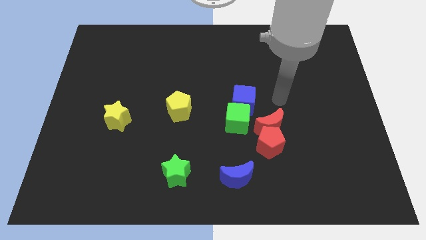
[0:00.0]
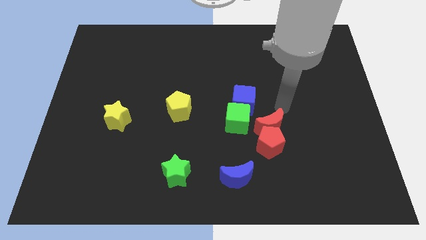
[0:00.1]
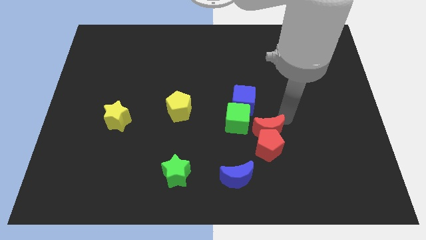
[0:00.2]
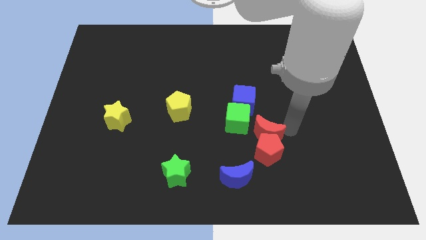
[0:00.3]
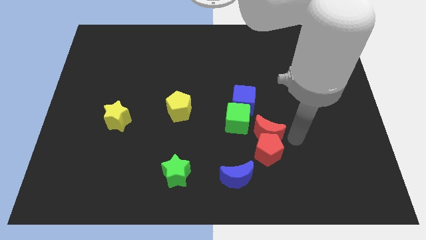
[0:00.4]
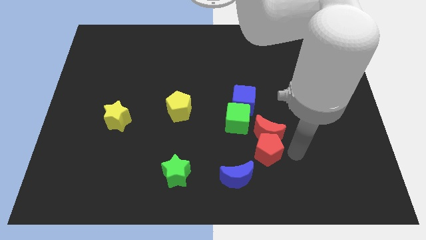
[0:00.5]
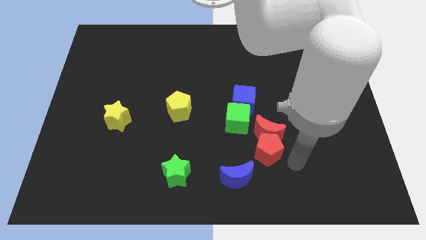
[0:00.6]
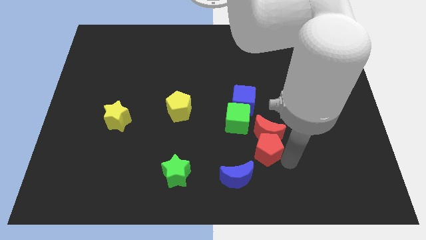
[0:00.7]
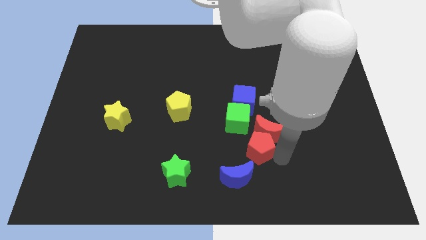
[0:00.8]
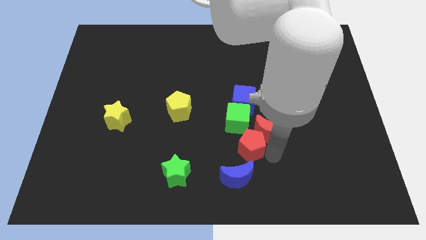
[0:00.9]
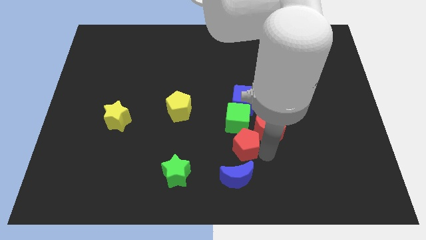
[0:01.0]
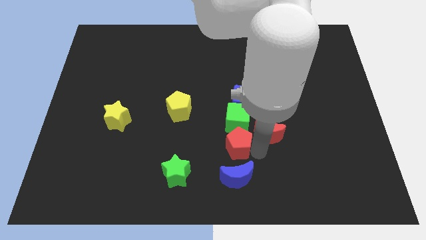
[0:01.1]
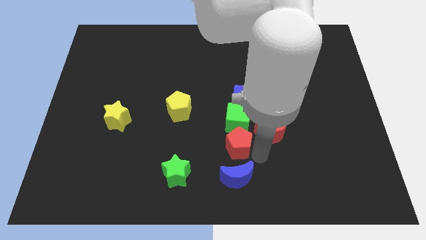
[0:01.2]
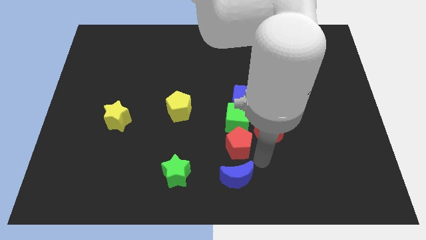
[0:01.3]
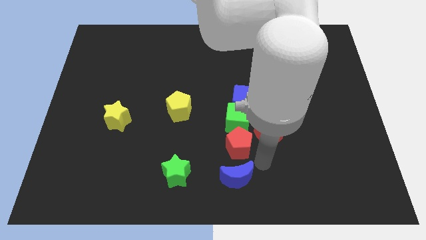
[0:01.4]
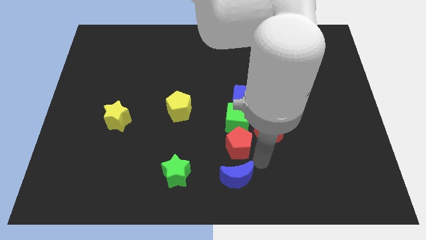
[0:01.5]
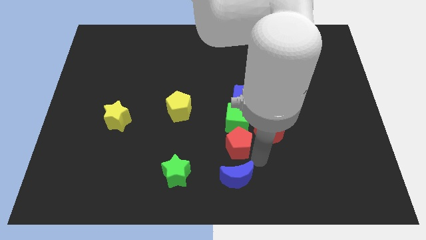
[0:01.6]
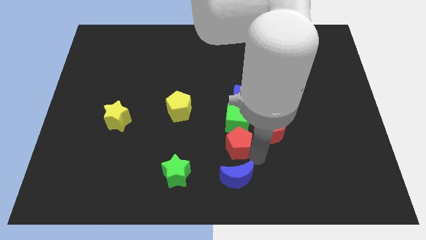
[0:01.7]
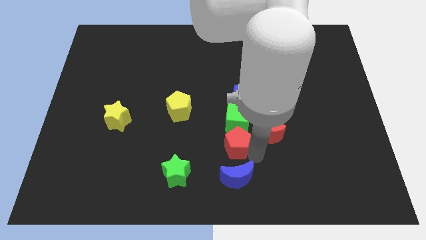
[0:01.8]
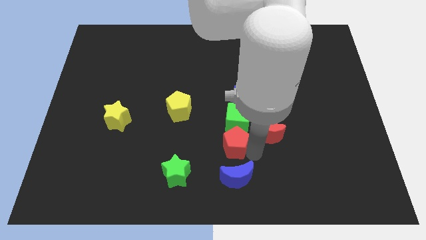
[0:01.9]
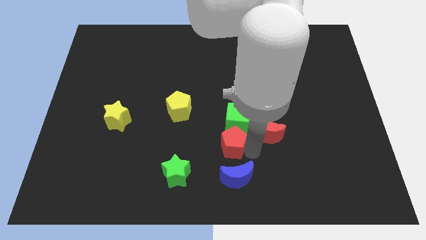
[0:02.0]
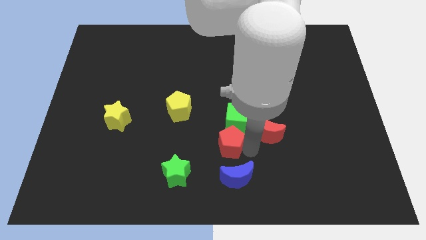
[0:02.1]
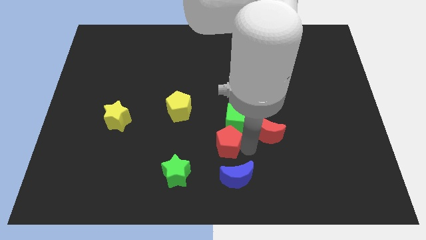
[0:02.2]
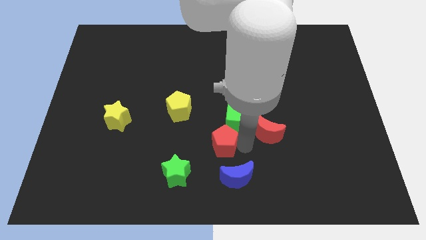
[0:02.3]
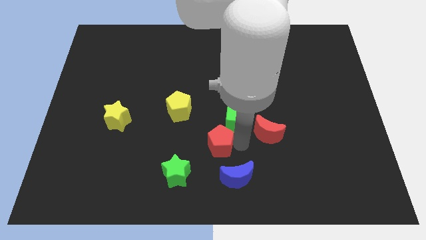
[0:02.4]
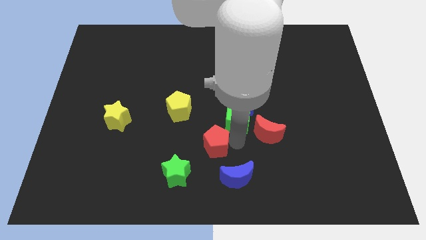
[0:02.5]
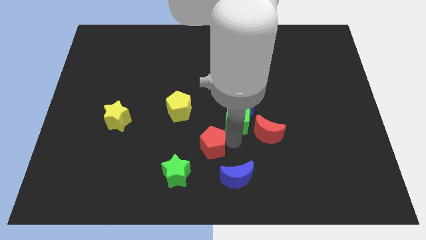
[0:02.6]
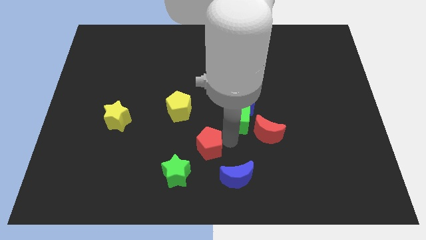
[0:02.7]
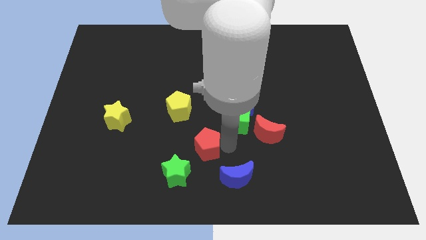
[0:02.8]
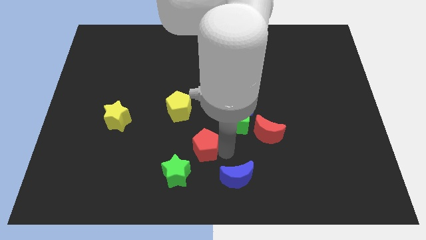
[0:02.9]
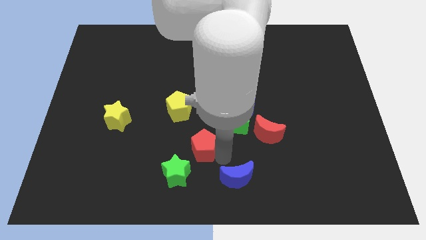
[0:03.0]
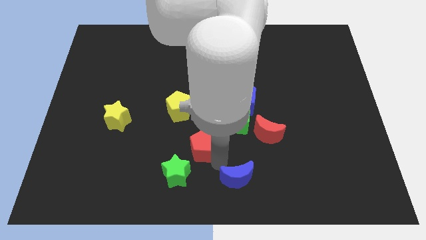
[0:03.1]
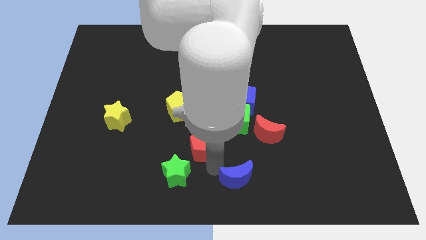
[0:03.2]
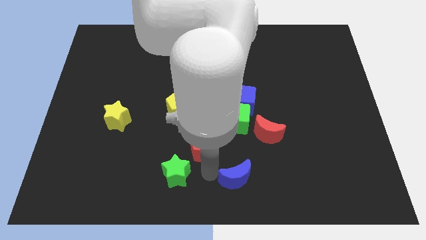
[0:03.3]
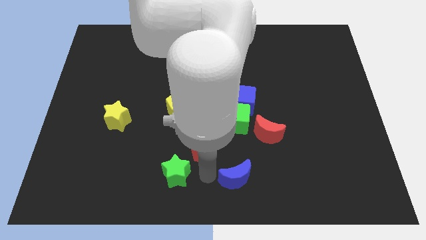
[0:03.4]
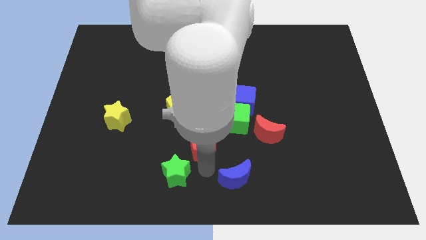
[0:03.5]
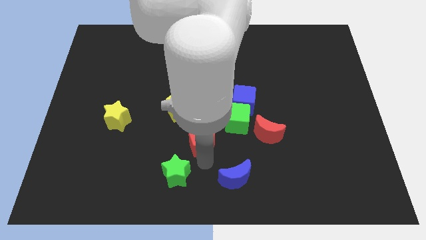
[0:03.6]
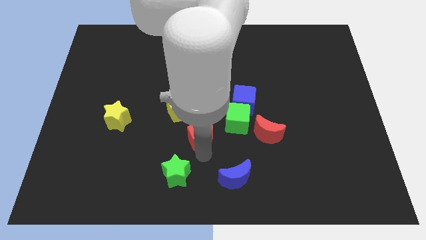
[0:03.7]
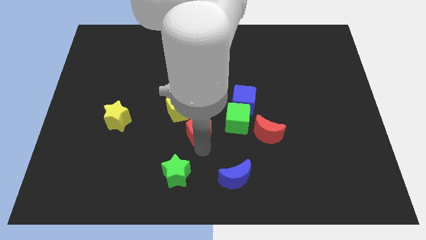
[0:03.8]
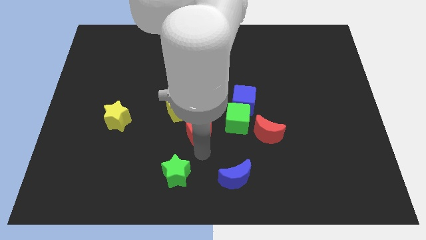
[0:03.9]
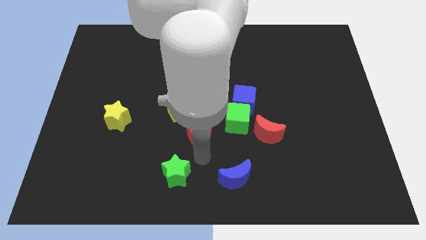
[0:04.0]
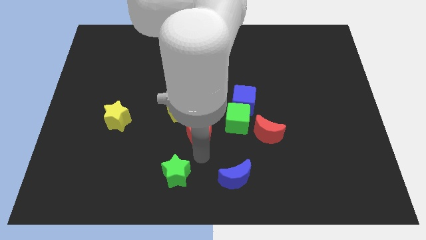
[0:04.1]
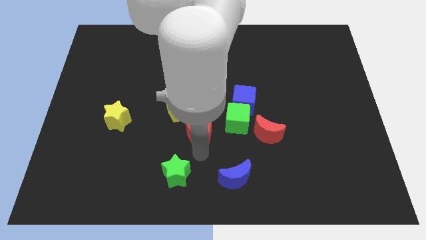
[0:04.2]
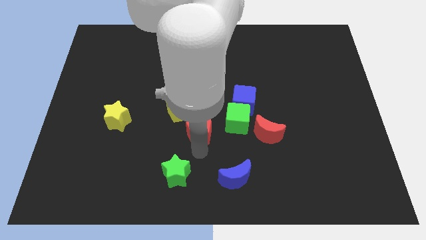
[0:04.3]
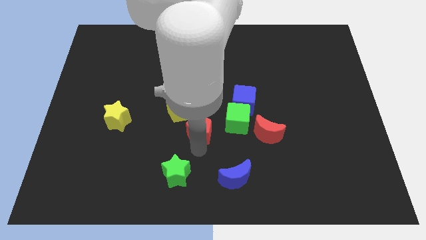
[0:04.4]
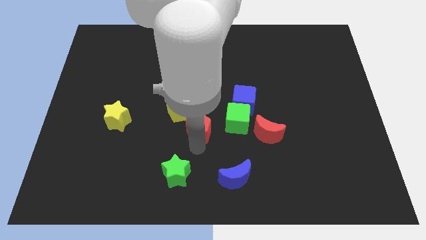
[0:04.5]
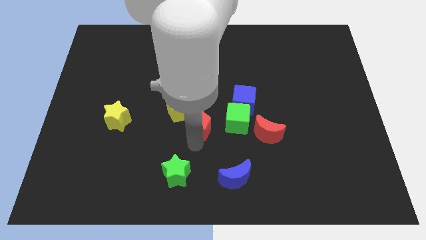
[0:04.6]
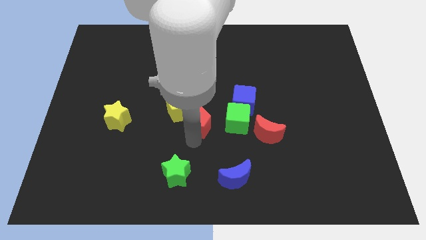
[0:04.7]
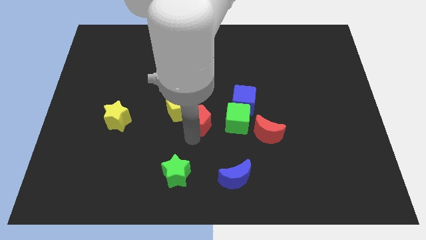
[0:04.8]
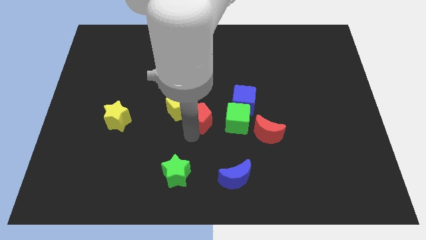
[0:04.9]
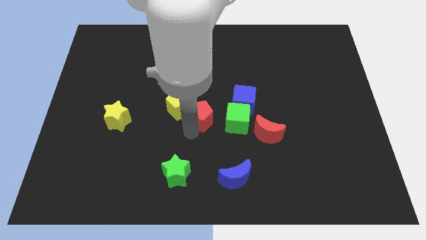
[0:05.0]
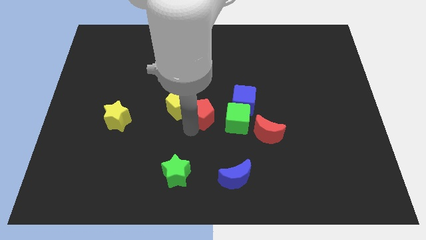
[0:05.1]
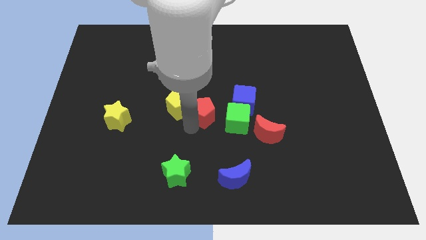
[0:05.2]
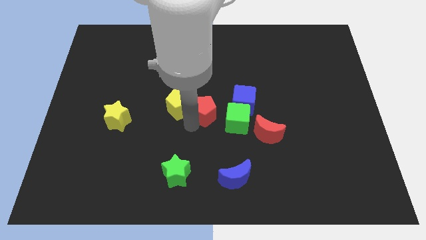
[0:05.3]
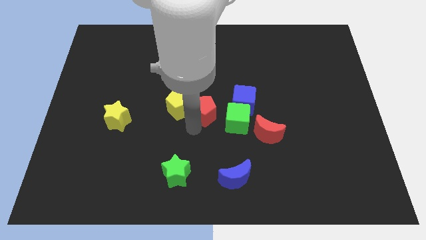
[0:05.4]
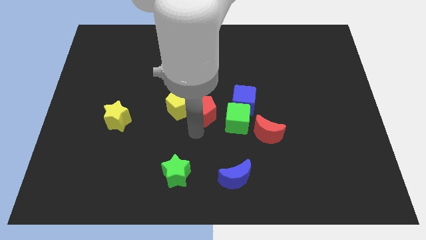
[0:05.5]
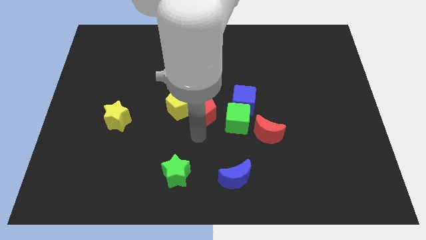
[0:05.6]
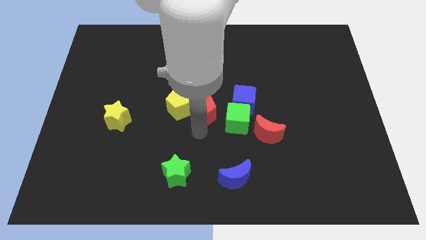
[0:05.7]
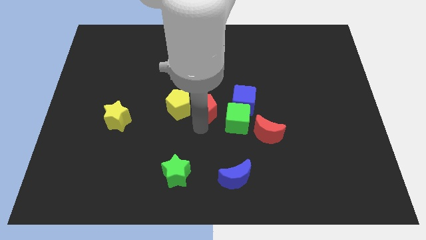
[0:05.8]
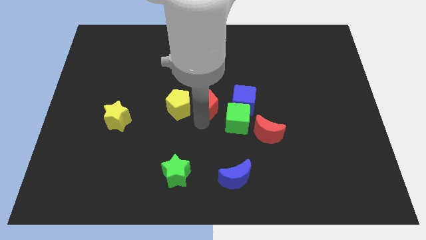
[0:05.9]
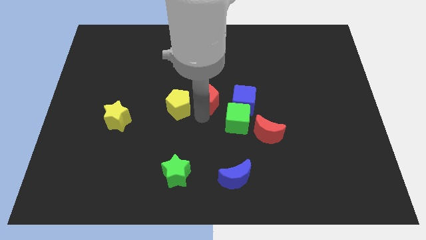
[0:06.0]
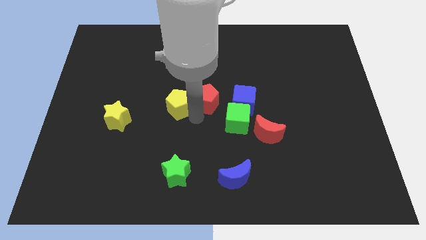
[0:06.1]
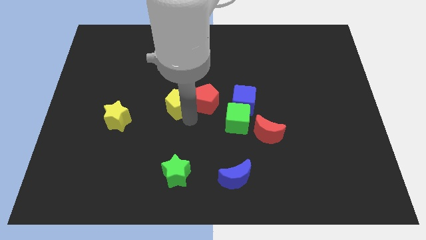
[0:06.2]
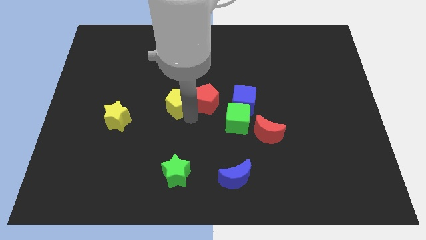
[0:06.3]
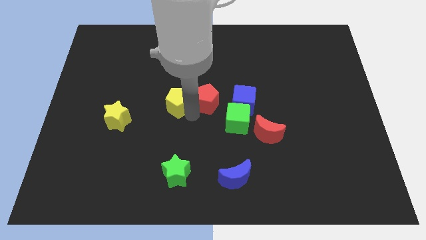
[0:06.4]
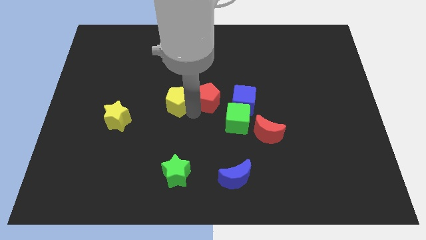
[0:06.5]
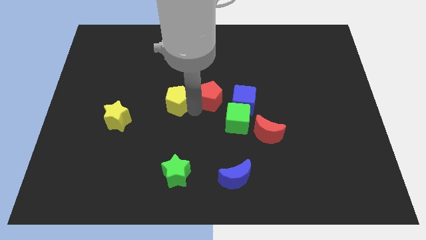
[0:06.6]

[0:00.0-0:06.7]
slide the red pentagon diagonally up and to the left of the blue cube

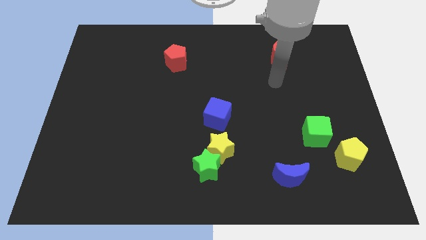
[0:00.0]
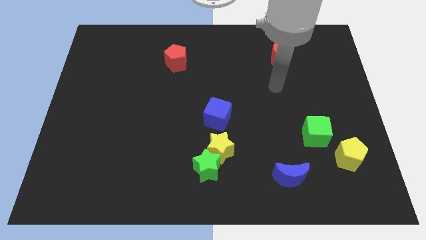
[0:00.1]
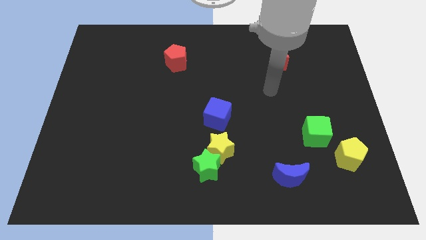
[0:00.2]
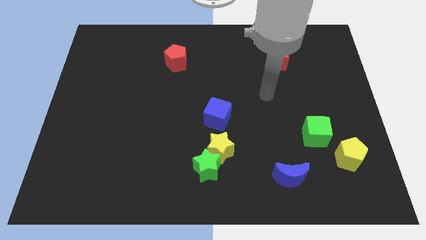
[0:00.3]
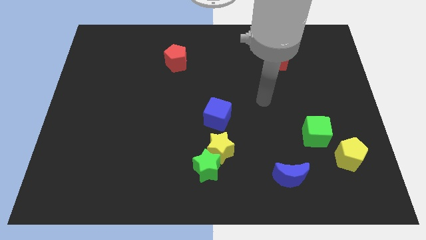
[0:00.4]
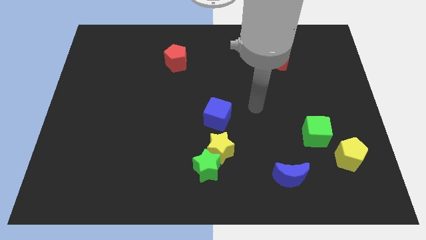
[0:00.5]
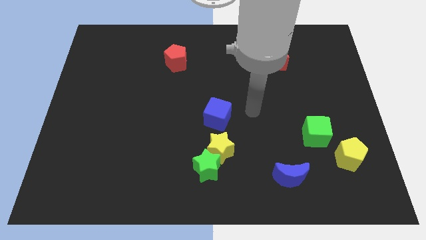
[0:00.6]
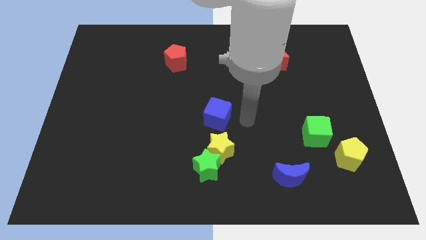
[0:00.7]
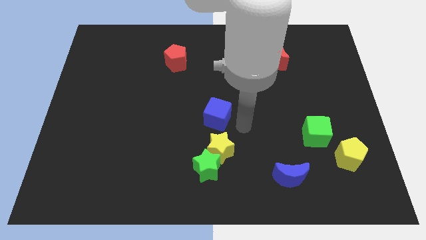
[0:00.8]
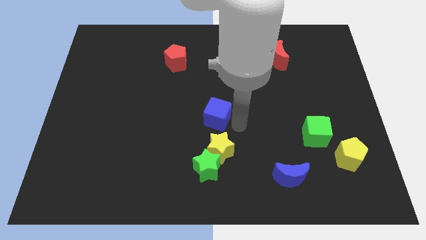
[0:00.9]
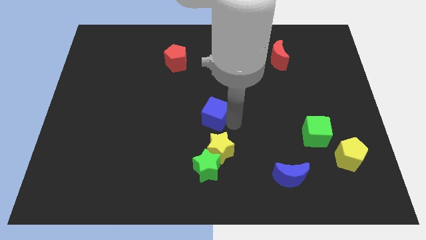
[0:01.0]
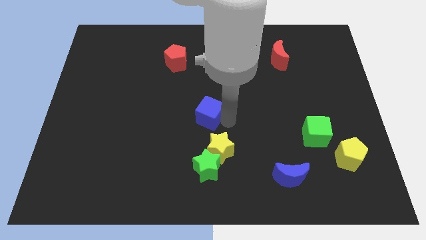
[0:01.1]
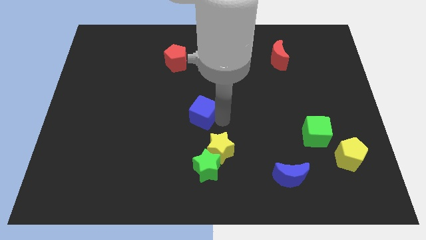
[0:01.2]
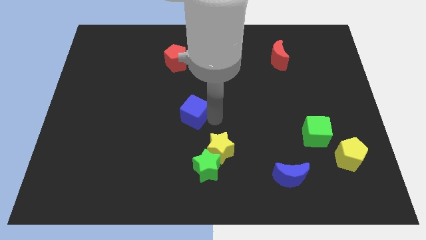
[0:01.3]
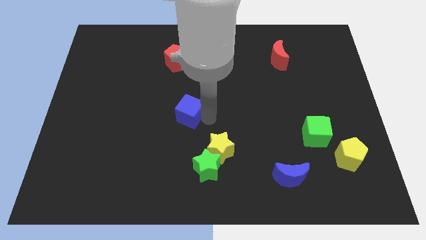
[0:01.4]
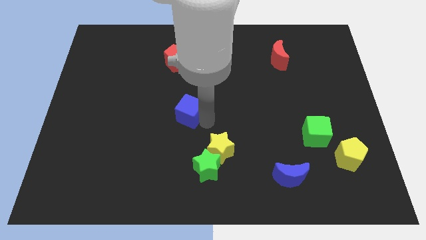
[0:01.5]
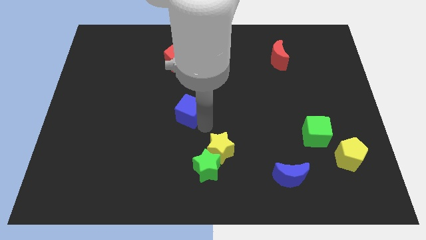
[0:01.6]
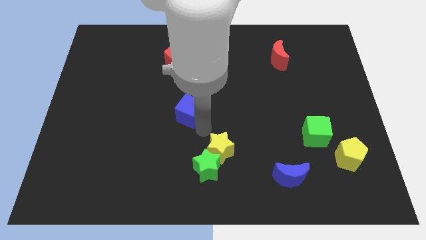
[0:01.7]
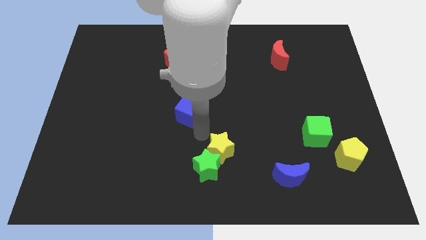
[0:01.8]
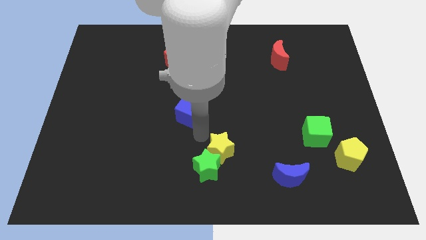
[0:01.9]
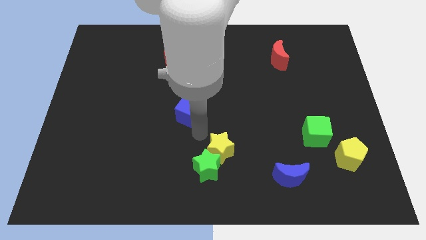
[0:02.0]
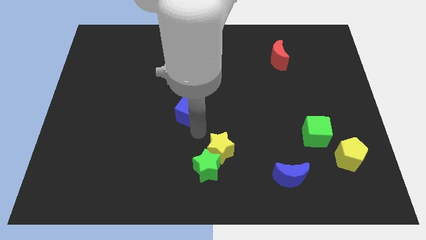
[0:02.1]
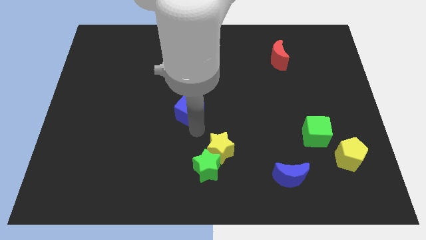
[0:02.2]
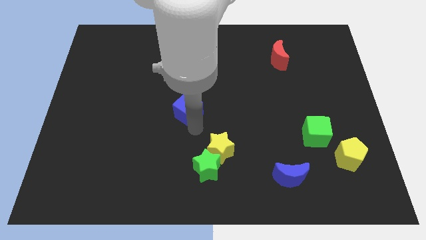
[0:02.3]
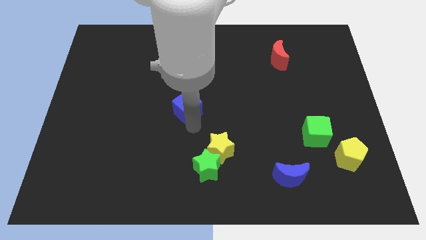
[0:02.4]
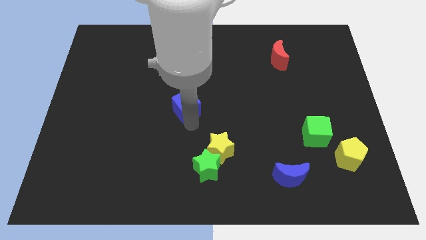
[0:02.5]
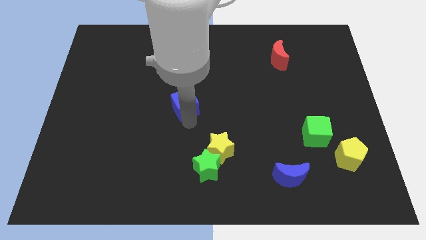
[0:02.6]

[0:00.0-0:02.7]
put the blue cube below the red pentagon
